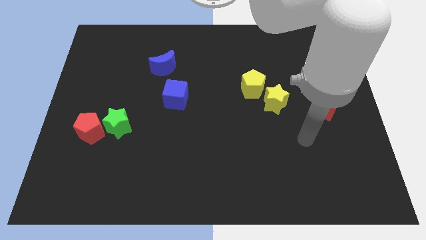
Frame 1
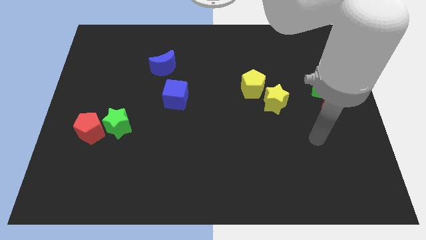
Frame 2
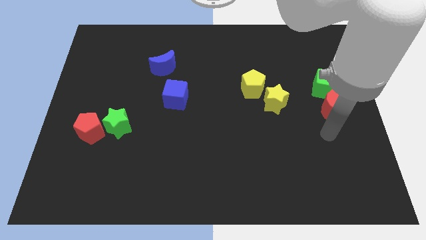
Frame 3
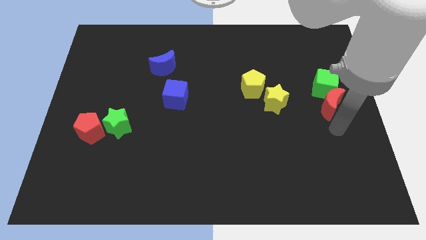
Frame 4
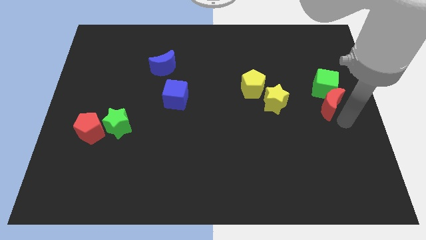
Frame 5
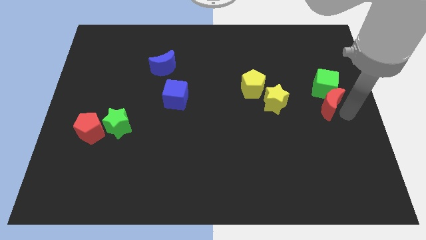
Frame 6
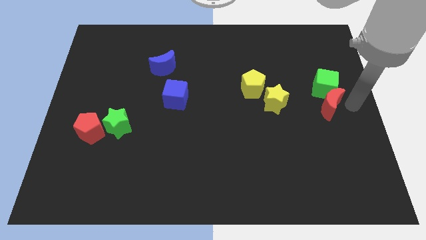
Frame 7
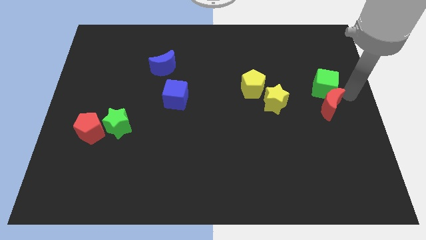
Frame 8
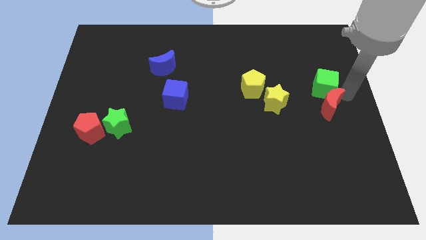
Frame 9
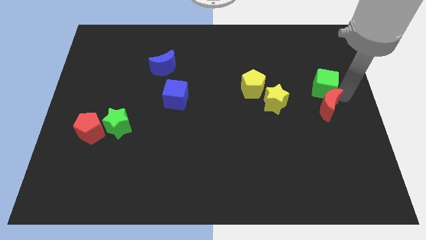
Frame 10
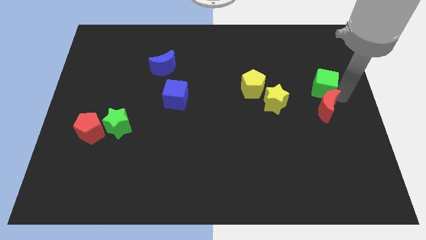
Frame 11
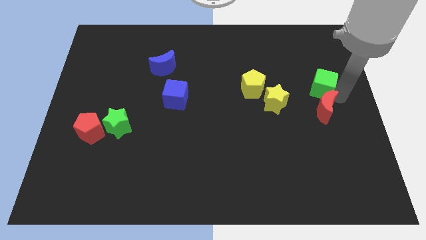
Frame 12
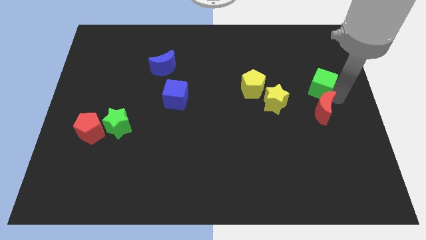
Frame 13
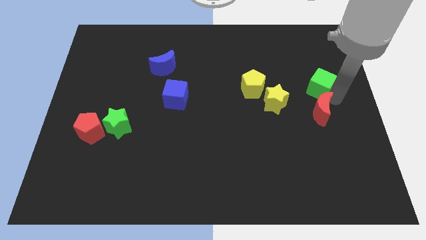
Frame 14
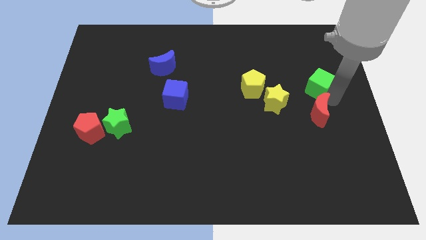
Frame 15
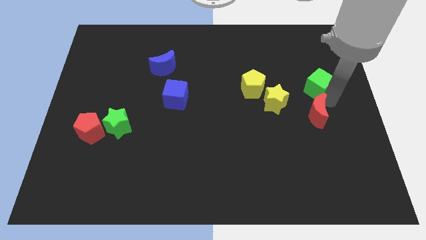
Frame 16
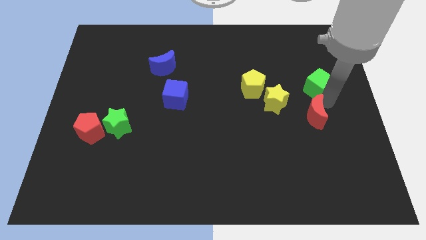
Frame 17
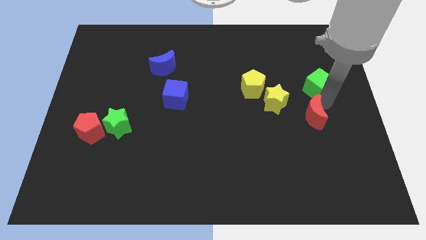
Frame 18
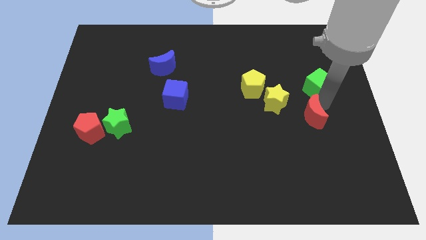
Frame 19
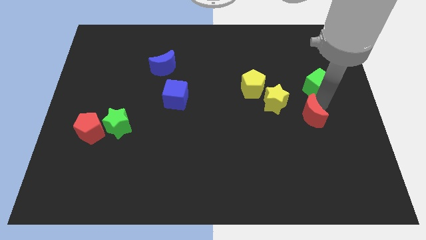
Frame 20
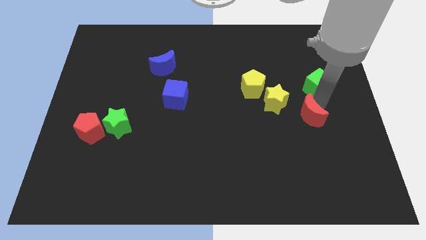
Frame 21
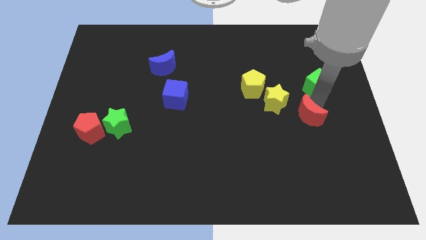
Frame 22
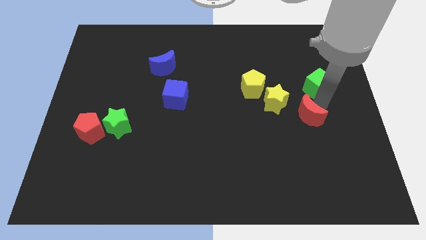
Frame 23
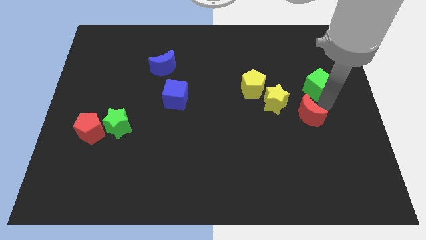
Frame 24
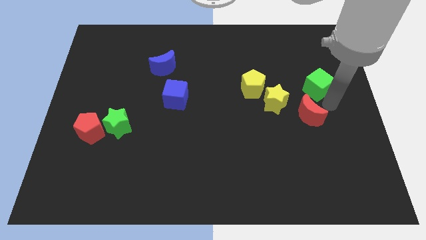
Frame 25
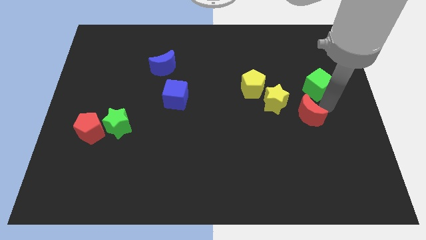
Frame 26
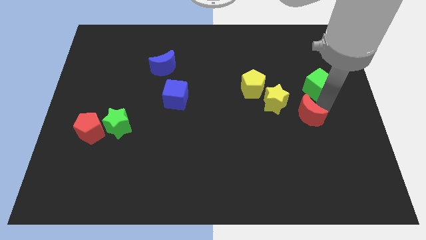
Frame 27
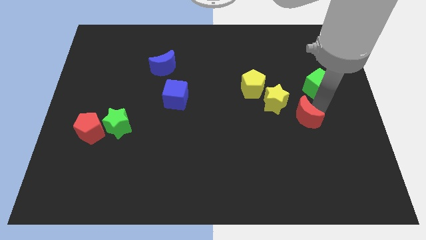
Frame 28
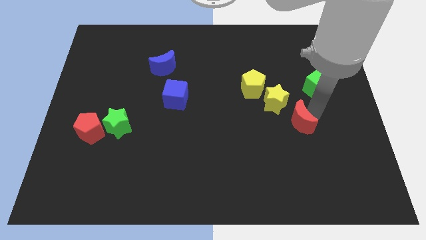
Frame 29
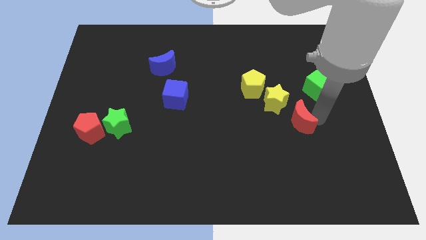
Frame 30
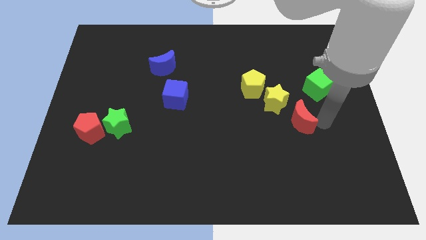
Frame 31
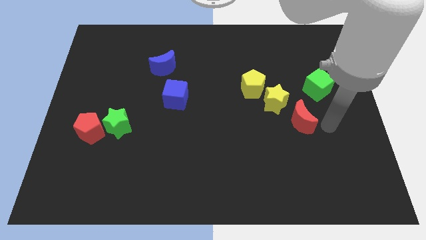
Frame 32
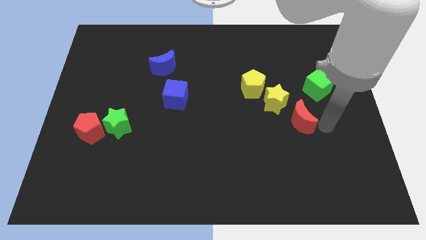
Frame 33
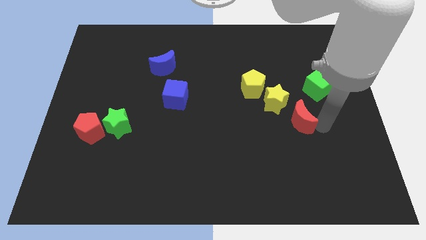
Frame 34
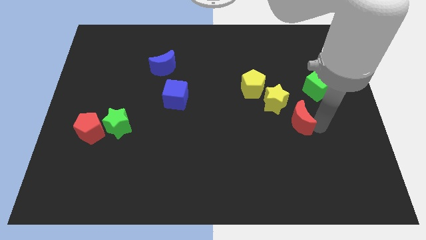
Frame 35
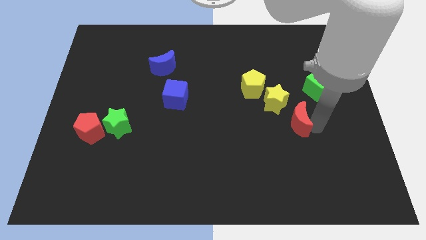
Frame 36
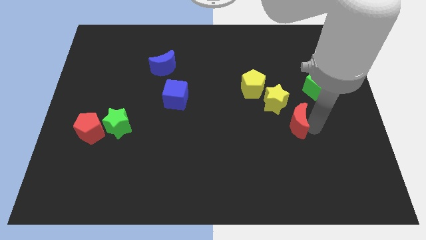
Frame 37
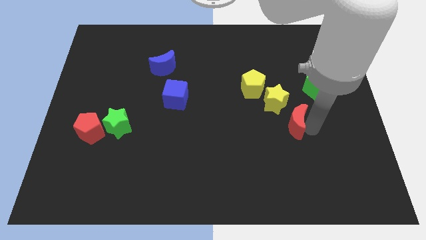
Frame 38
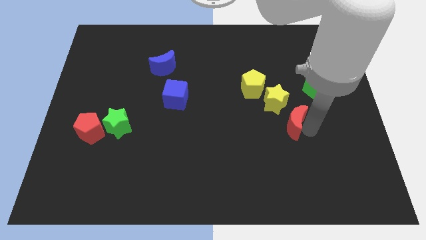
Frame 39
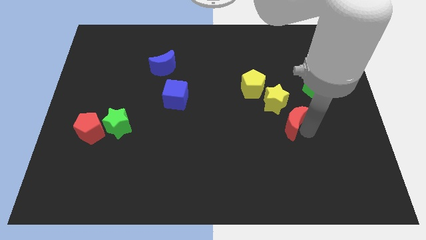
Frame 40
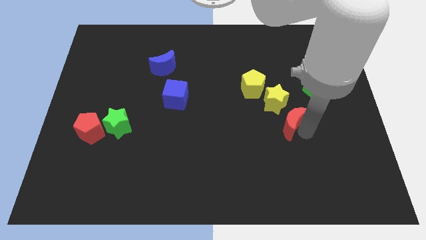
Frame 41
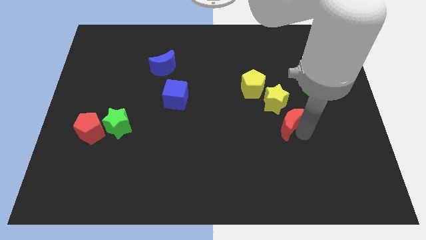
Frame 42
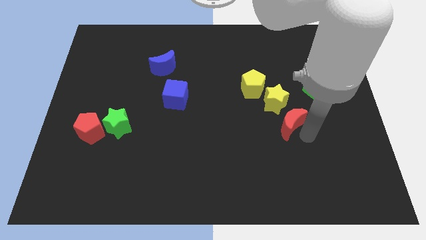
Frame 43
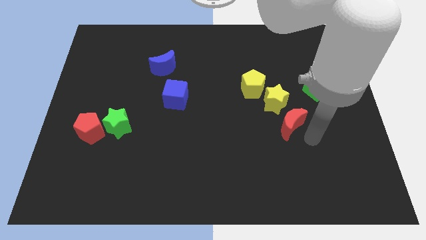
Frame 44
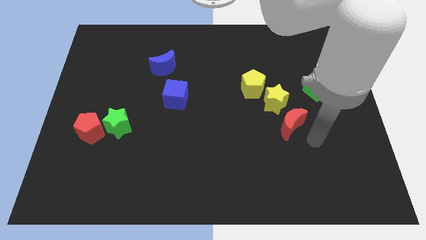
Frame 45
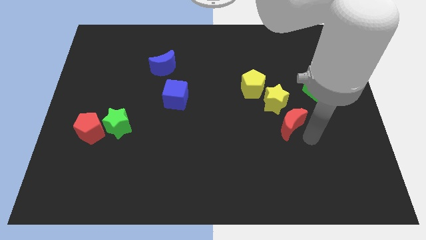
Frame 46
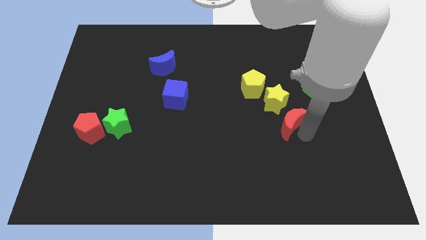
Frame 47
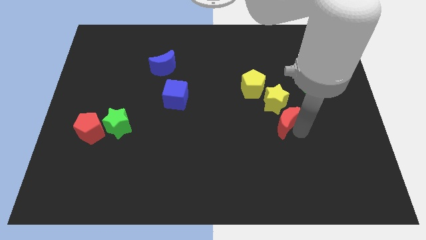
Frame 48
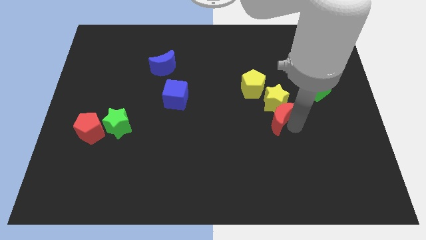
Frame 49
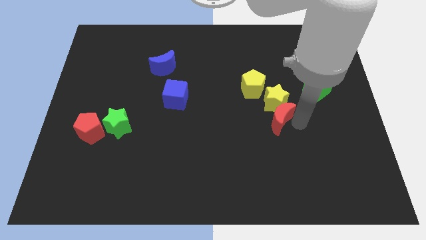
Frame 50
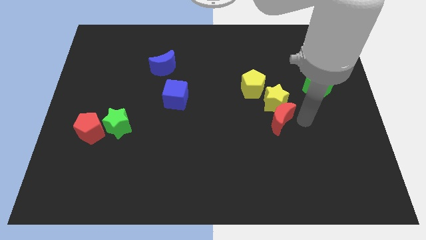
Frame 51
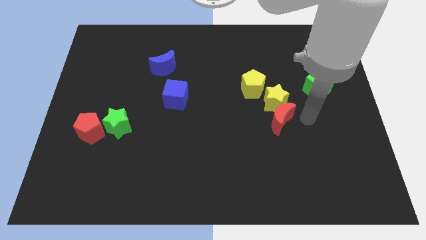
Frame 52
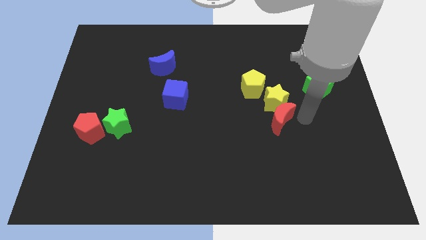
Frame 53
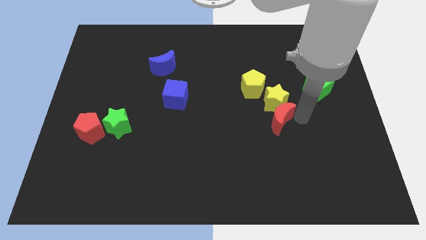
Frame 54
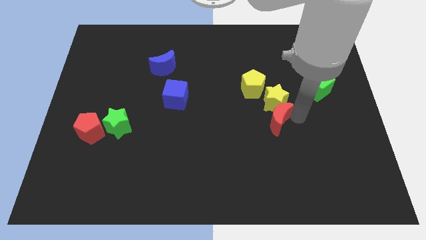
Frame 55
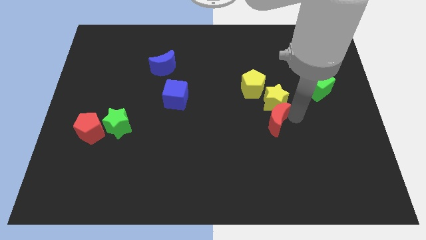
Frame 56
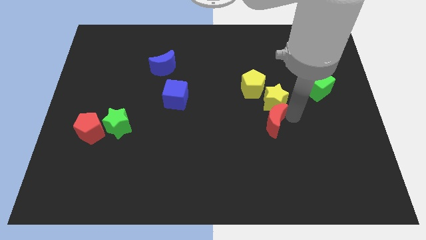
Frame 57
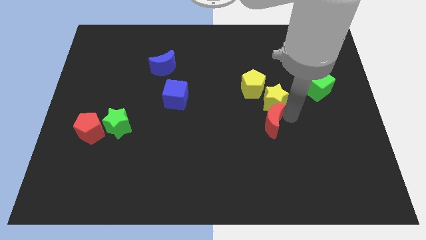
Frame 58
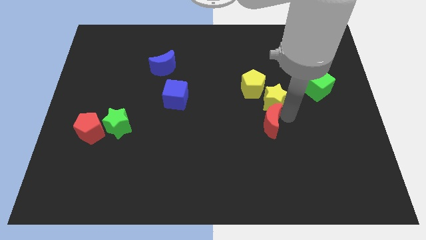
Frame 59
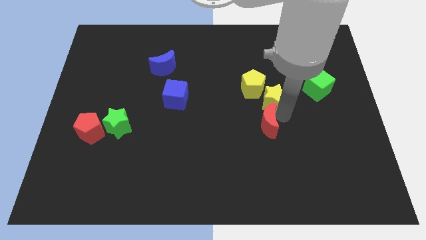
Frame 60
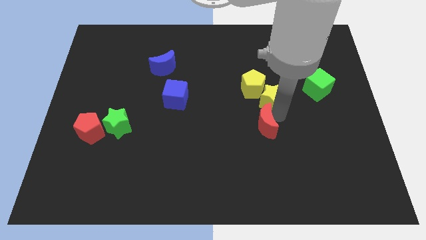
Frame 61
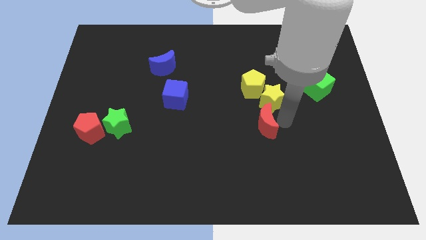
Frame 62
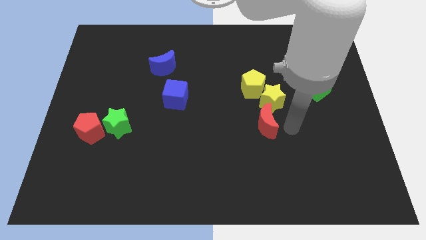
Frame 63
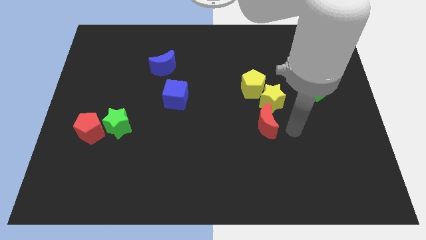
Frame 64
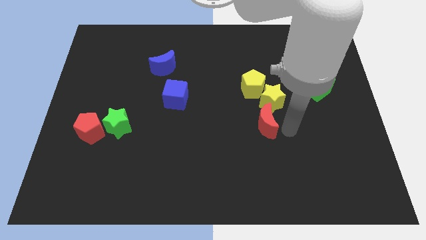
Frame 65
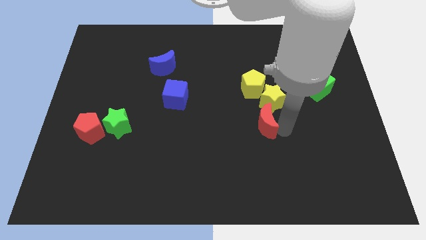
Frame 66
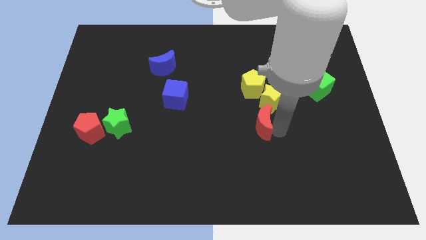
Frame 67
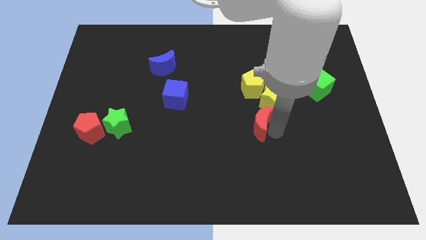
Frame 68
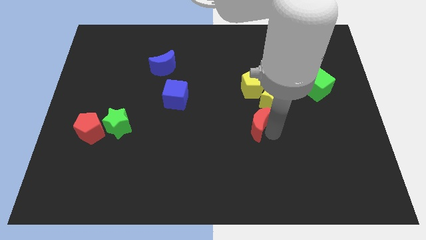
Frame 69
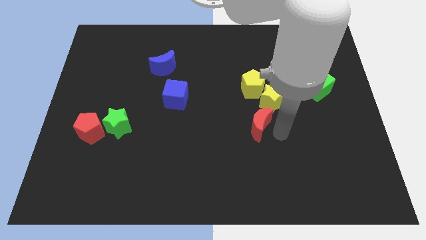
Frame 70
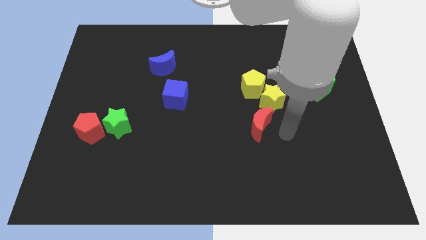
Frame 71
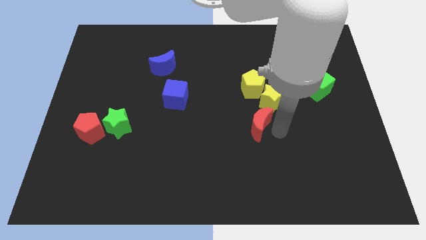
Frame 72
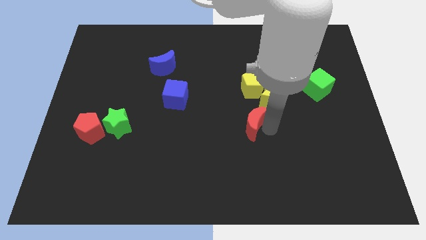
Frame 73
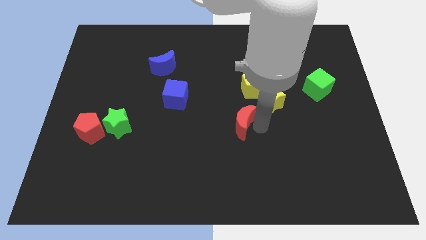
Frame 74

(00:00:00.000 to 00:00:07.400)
slide the red moon to the left

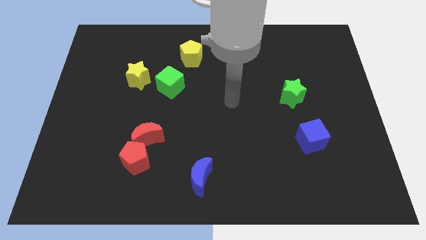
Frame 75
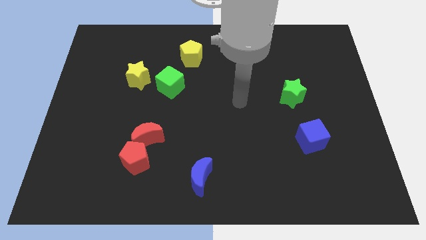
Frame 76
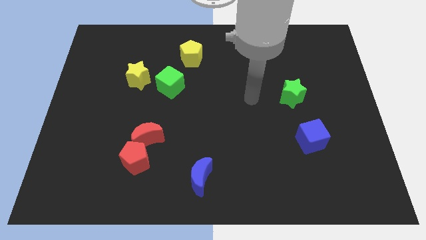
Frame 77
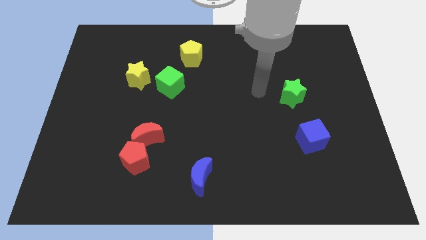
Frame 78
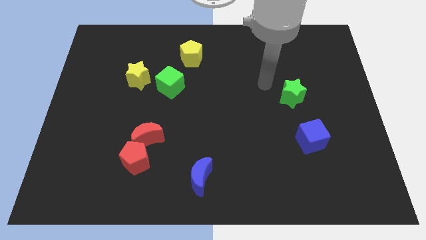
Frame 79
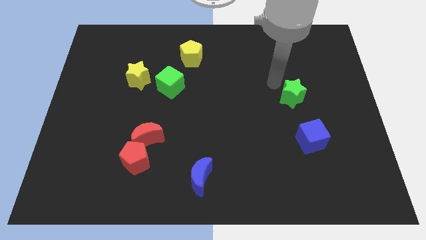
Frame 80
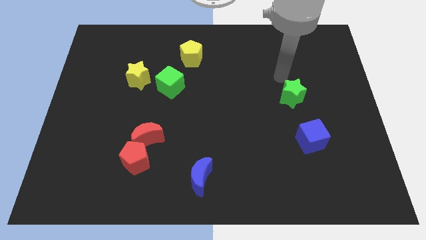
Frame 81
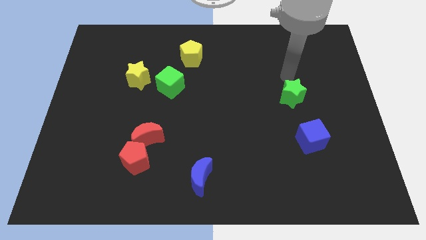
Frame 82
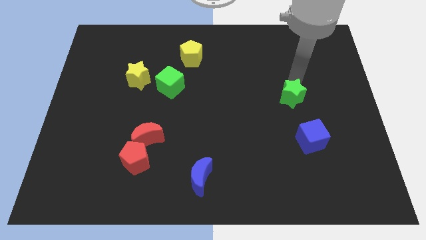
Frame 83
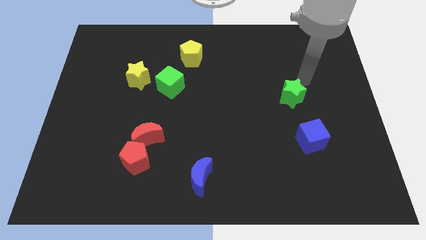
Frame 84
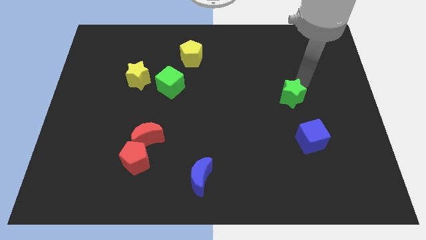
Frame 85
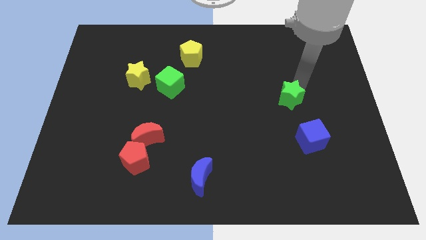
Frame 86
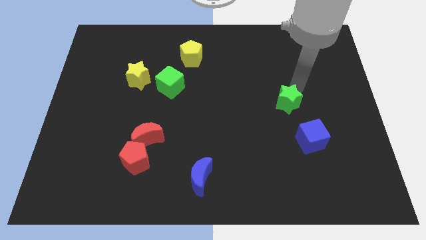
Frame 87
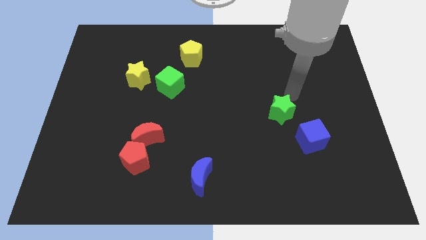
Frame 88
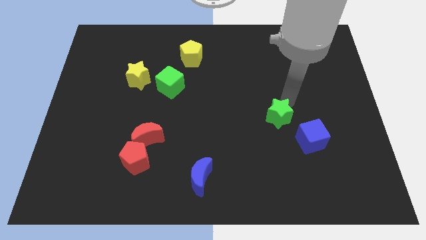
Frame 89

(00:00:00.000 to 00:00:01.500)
slightly move the green star downwards and left
